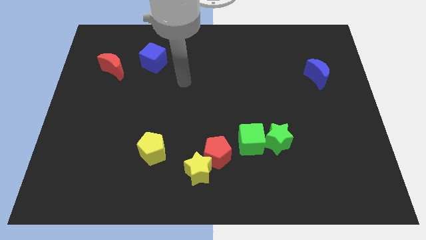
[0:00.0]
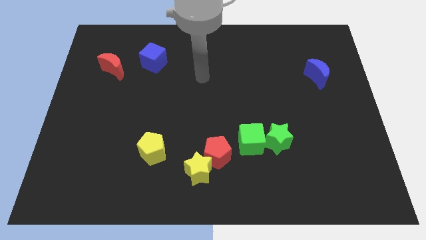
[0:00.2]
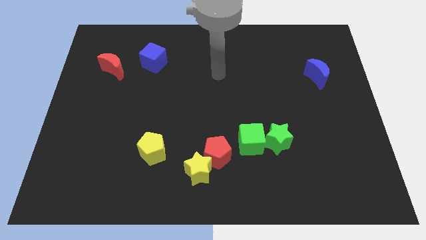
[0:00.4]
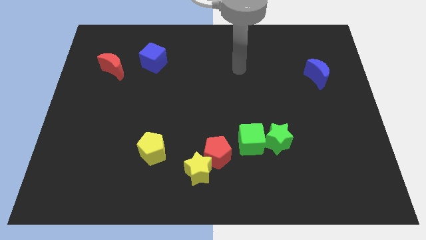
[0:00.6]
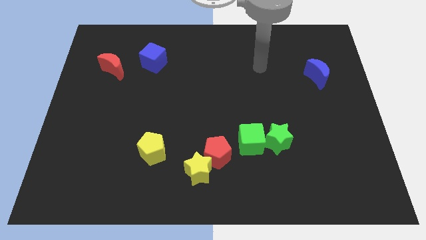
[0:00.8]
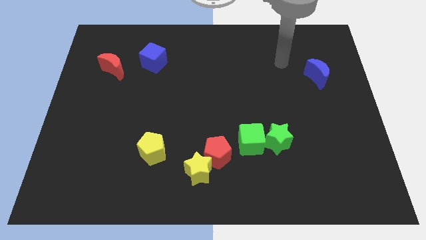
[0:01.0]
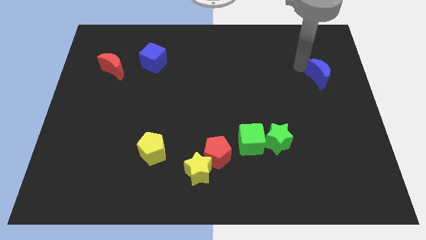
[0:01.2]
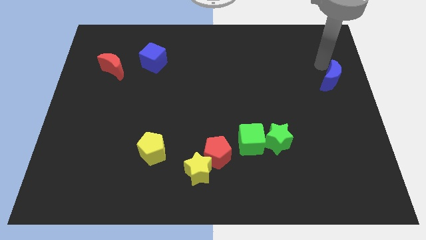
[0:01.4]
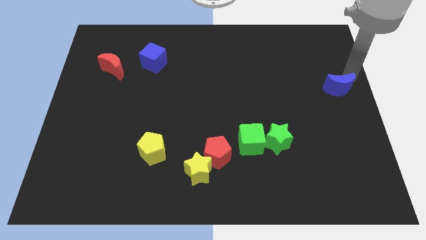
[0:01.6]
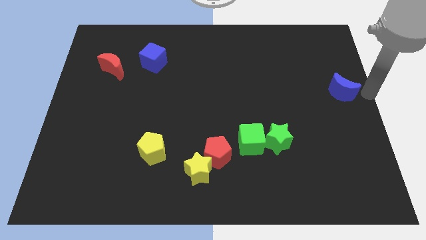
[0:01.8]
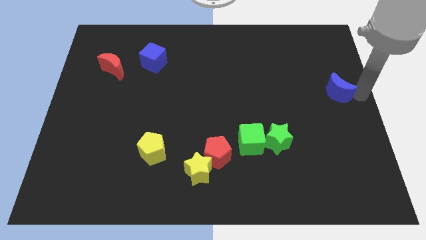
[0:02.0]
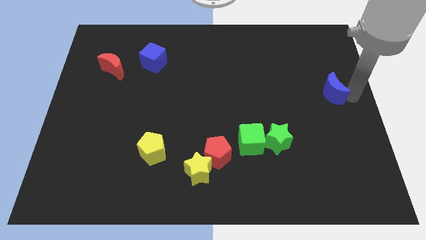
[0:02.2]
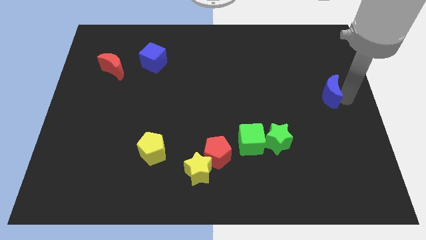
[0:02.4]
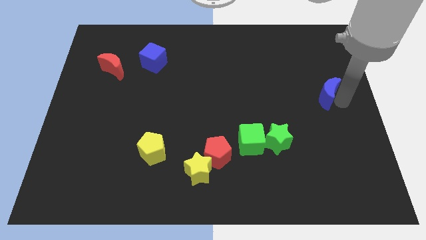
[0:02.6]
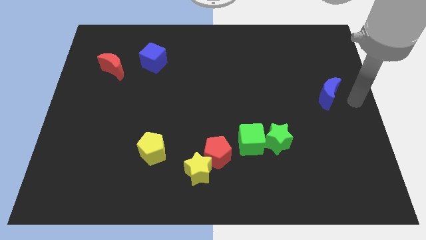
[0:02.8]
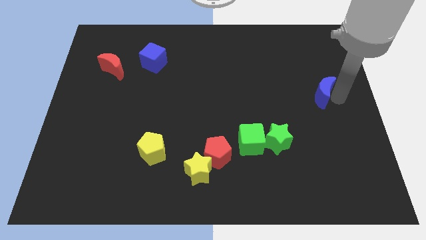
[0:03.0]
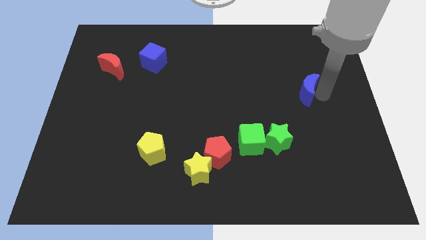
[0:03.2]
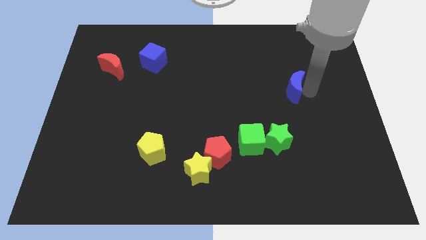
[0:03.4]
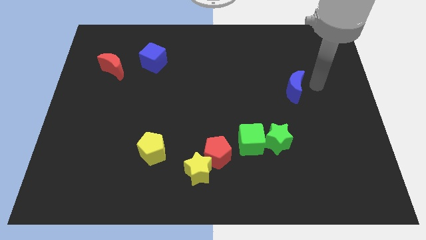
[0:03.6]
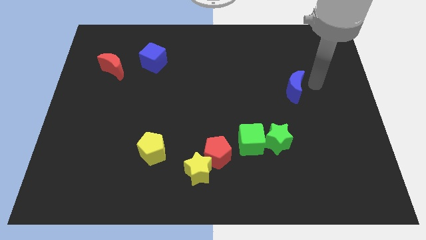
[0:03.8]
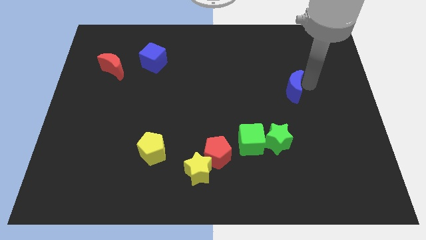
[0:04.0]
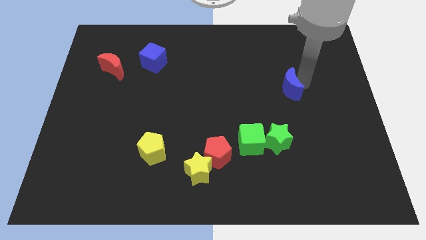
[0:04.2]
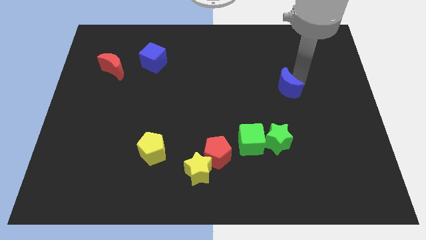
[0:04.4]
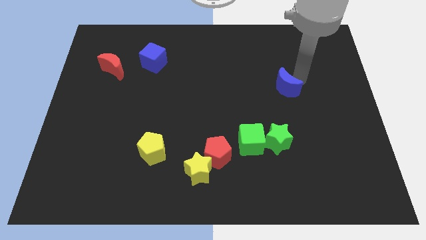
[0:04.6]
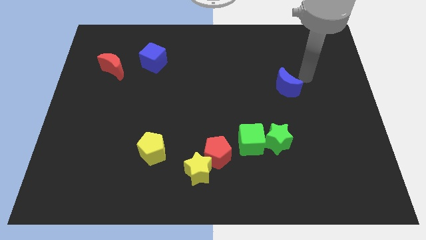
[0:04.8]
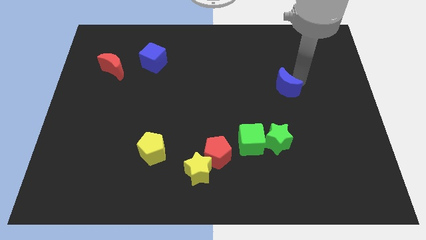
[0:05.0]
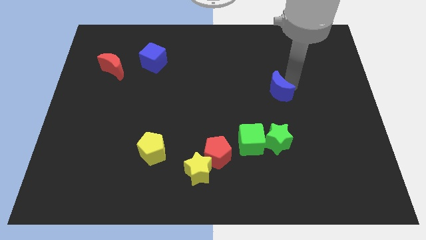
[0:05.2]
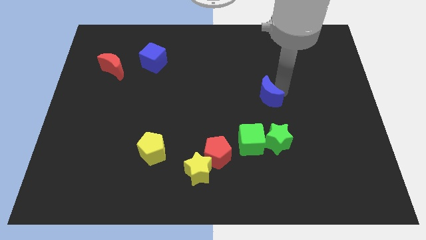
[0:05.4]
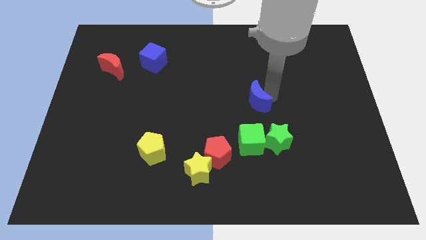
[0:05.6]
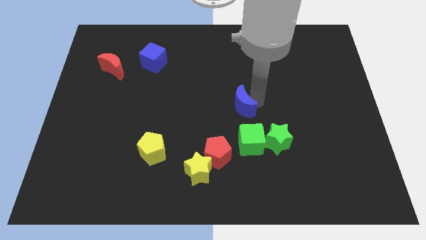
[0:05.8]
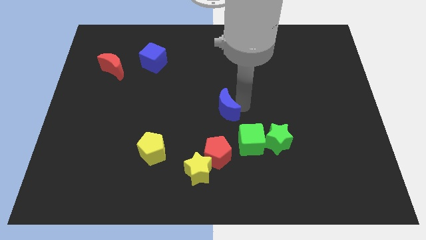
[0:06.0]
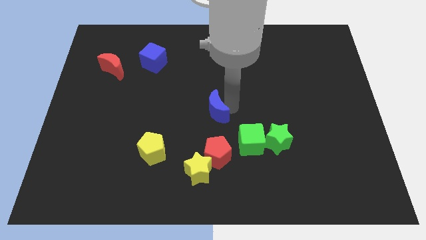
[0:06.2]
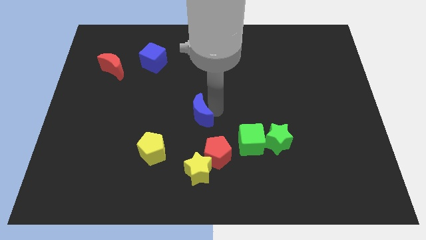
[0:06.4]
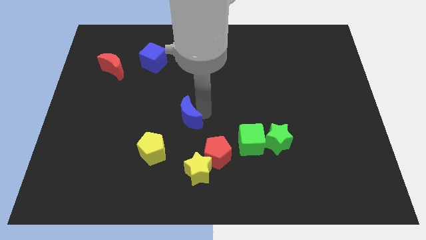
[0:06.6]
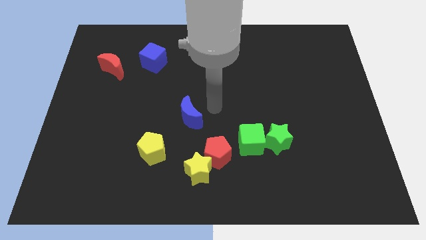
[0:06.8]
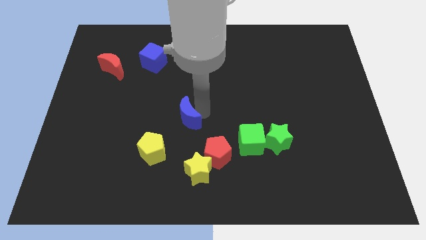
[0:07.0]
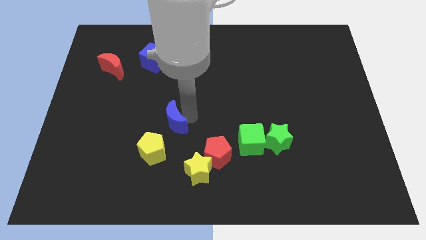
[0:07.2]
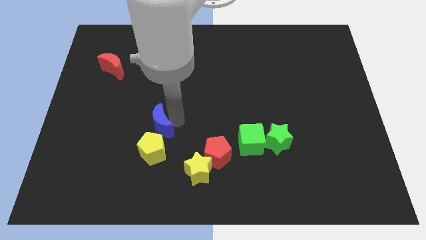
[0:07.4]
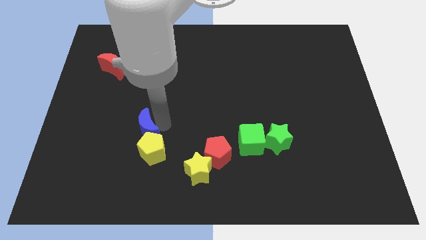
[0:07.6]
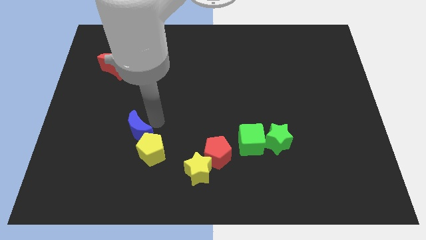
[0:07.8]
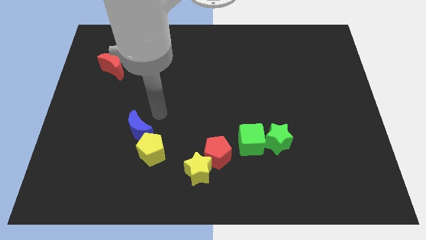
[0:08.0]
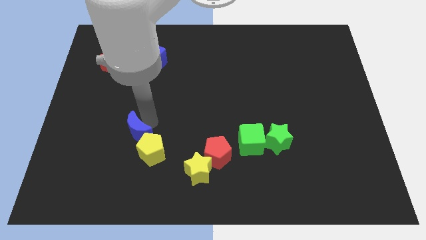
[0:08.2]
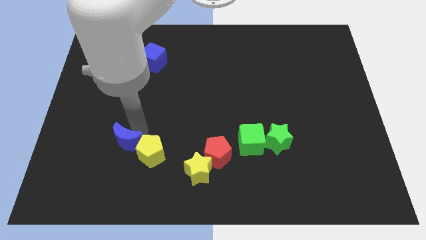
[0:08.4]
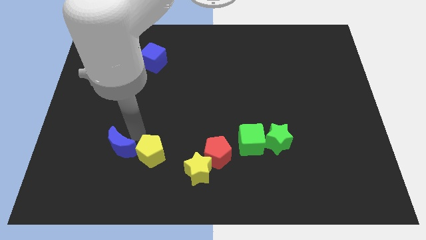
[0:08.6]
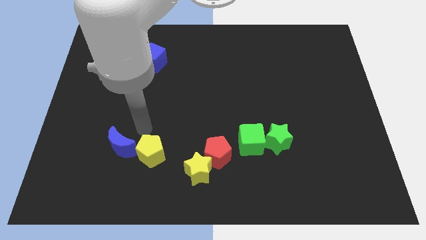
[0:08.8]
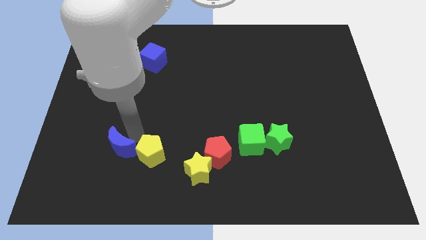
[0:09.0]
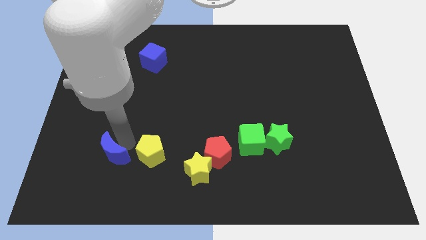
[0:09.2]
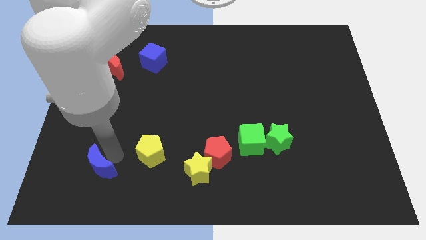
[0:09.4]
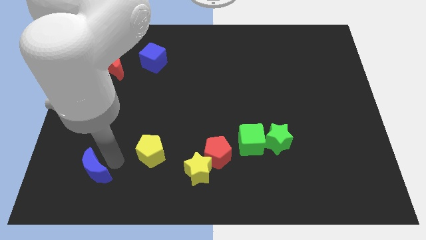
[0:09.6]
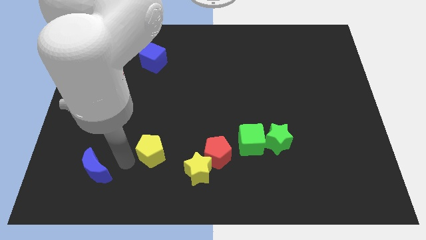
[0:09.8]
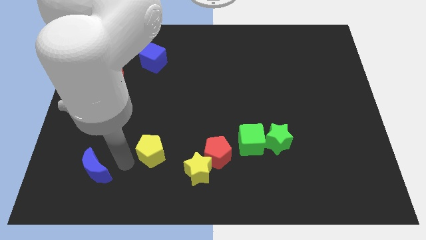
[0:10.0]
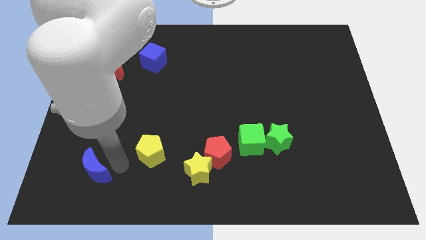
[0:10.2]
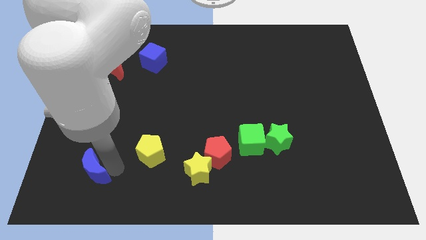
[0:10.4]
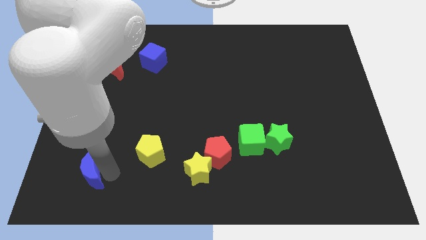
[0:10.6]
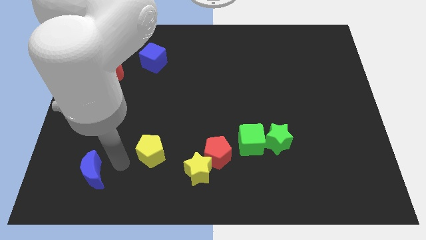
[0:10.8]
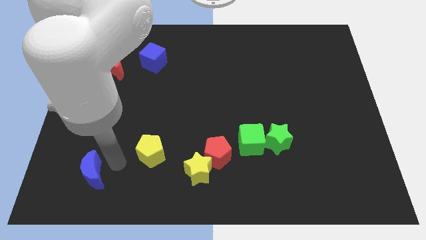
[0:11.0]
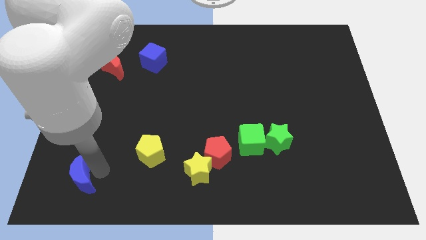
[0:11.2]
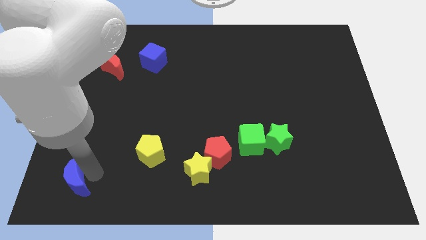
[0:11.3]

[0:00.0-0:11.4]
move the blue moon to the bottom left
